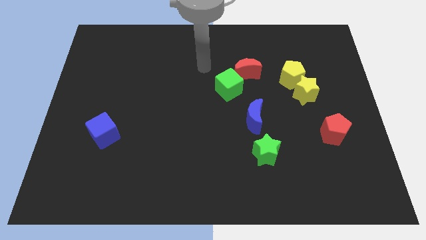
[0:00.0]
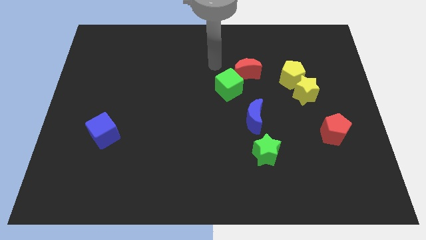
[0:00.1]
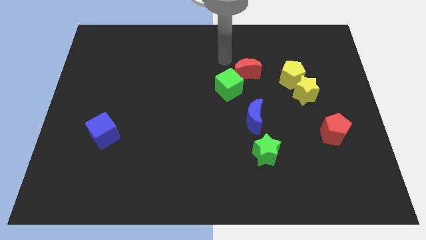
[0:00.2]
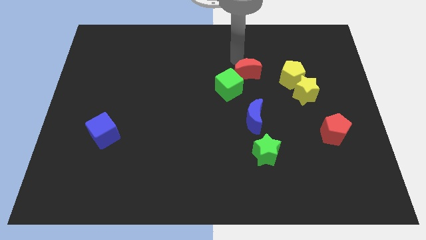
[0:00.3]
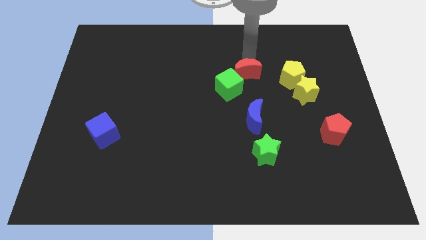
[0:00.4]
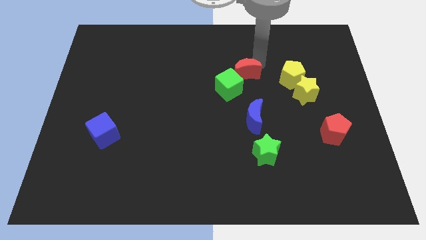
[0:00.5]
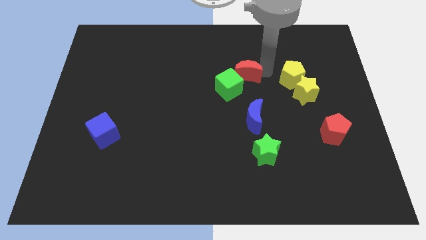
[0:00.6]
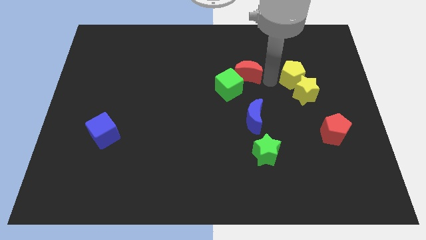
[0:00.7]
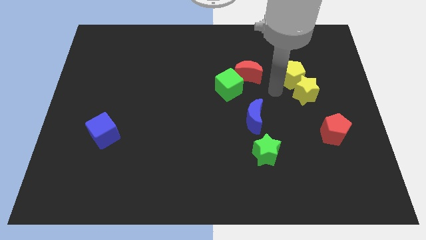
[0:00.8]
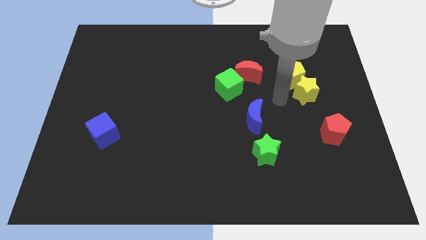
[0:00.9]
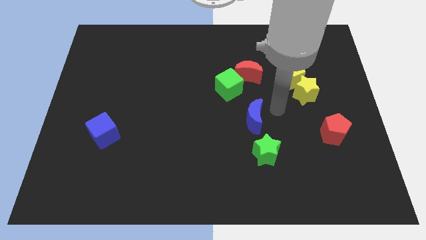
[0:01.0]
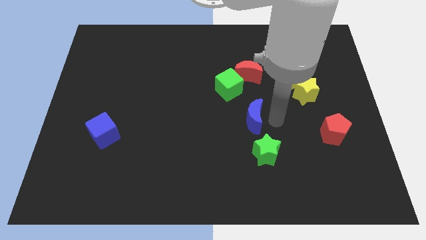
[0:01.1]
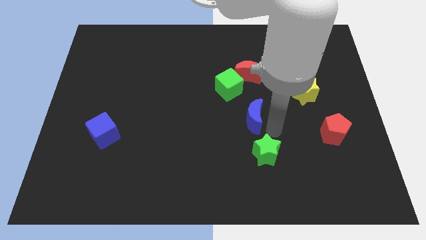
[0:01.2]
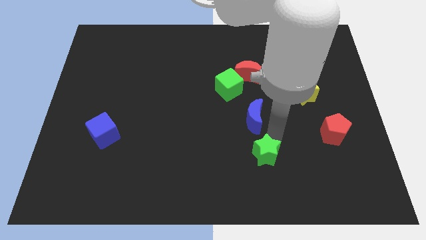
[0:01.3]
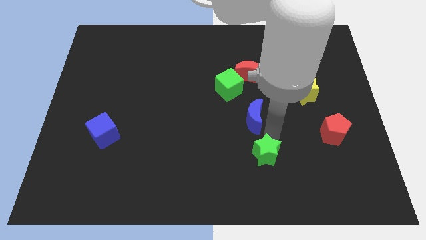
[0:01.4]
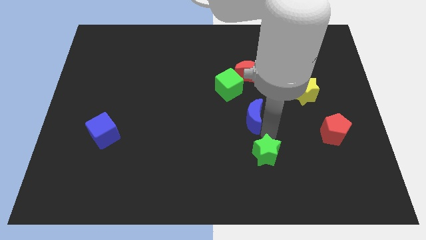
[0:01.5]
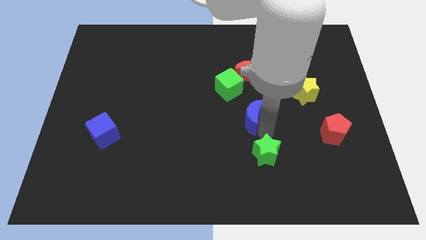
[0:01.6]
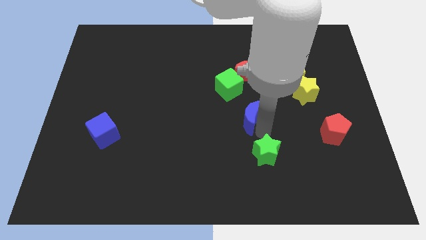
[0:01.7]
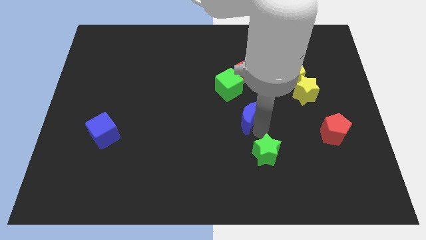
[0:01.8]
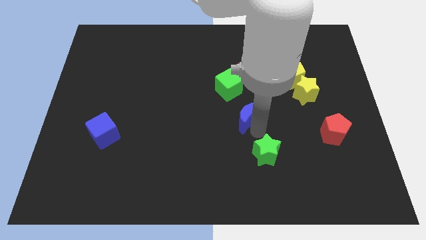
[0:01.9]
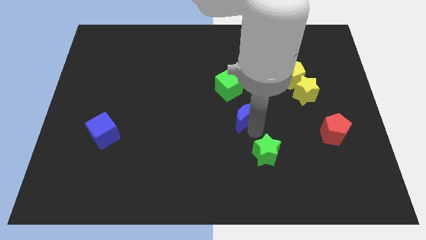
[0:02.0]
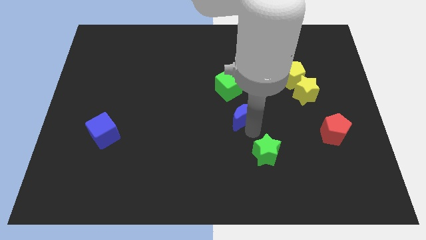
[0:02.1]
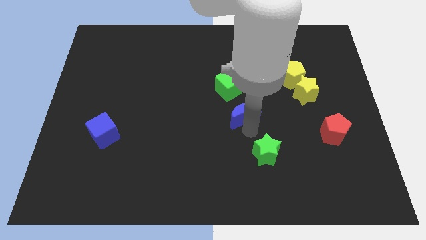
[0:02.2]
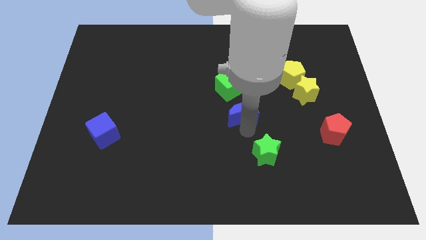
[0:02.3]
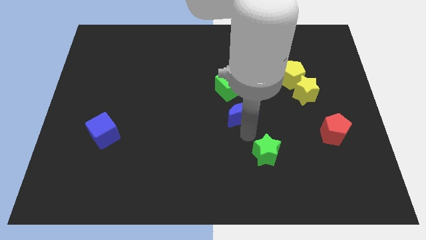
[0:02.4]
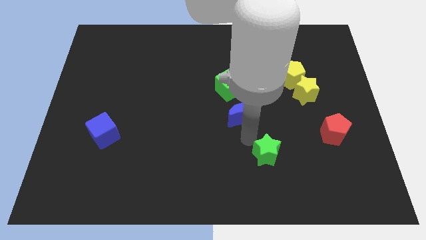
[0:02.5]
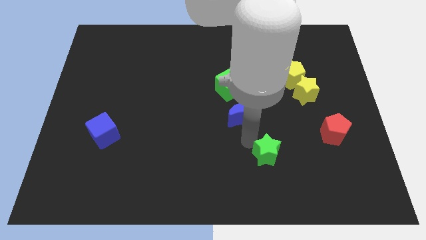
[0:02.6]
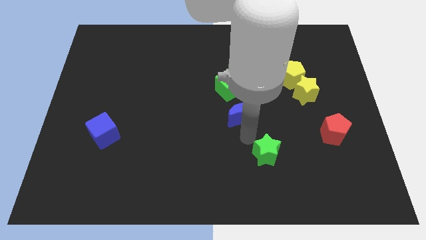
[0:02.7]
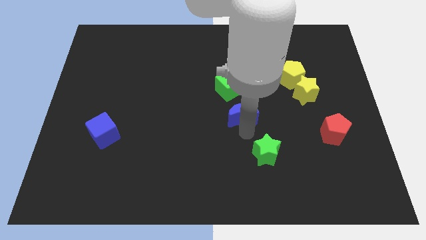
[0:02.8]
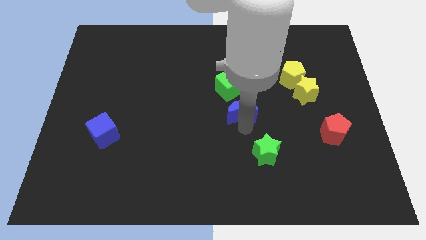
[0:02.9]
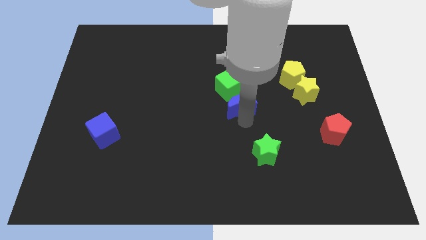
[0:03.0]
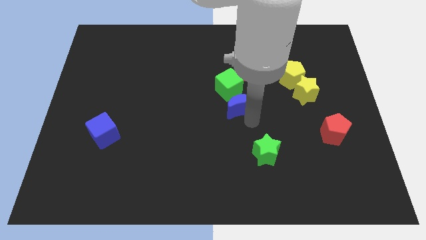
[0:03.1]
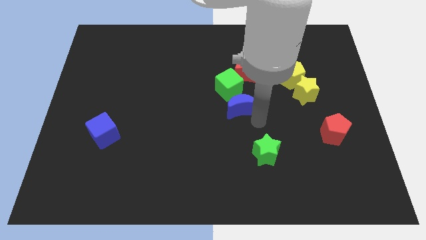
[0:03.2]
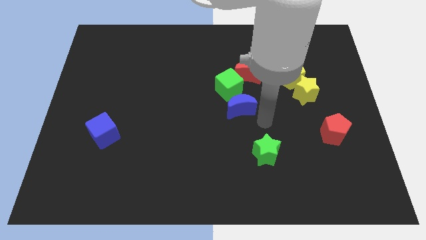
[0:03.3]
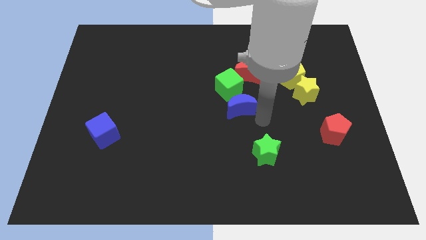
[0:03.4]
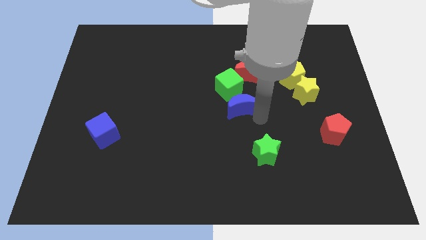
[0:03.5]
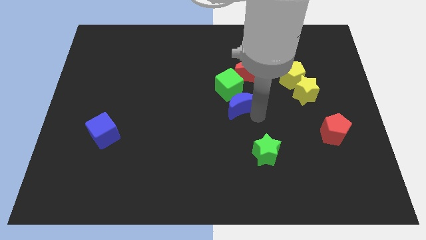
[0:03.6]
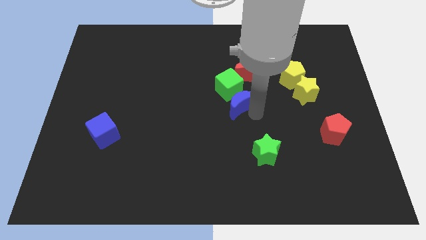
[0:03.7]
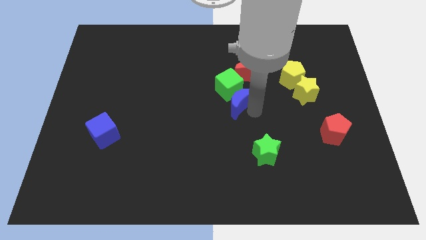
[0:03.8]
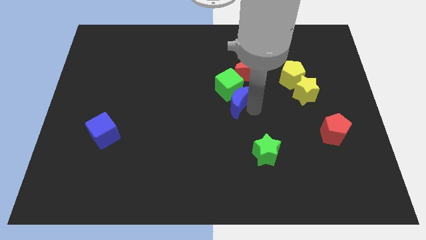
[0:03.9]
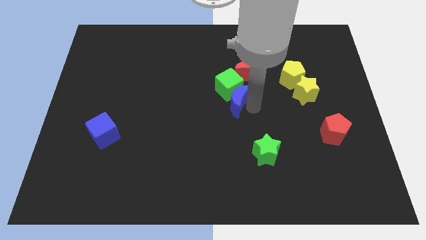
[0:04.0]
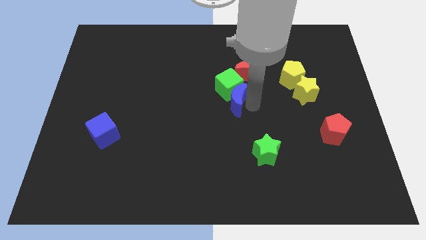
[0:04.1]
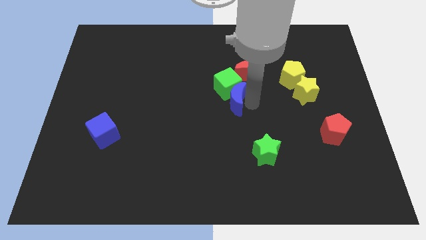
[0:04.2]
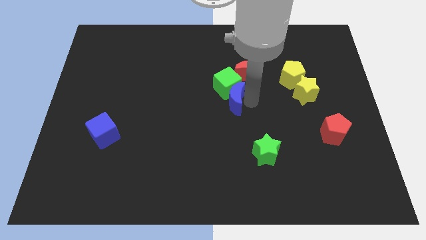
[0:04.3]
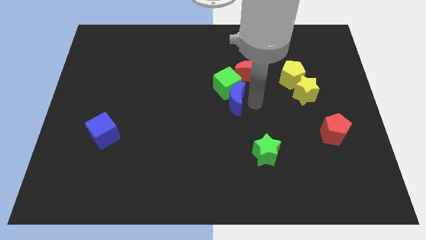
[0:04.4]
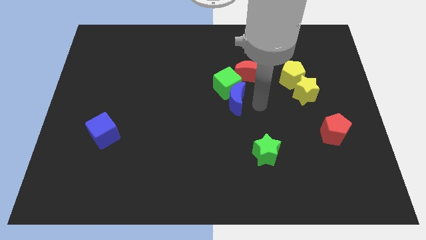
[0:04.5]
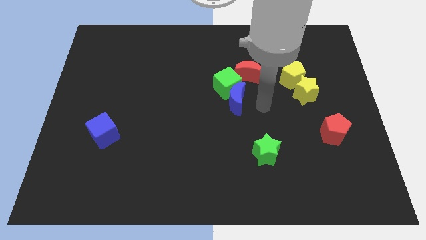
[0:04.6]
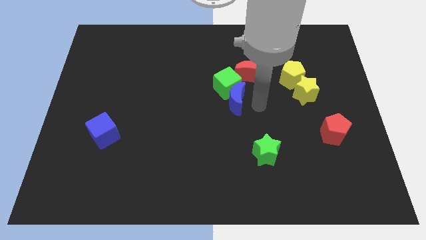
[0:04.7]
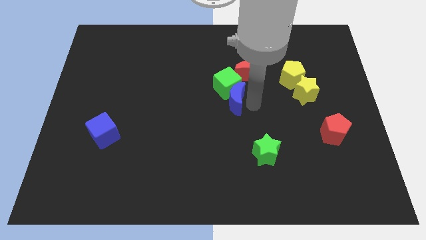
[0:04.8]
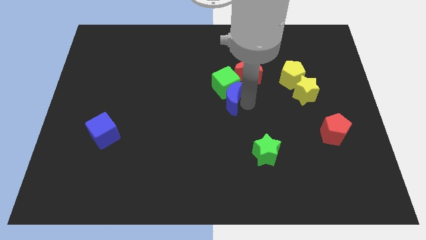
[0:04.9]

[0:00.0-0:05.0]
slightly slide the blue moon diagonally upwards and to the left

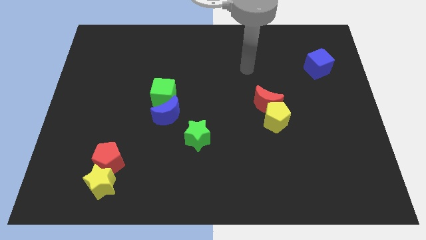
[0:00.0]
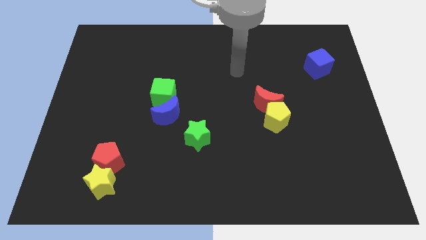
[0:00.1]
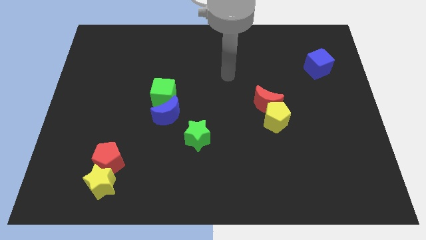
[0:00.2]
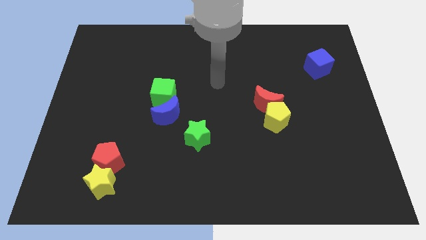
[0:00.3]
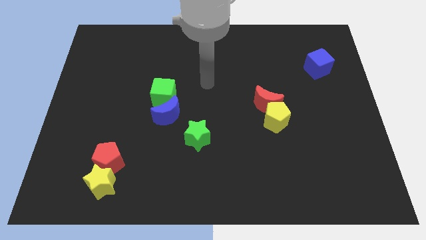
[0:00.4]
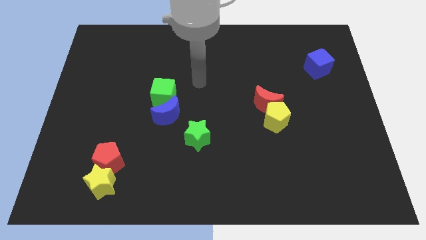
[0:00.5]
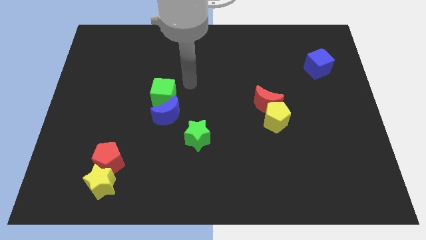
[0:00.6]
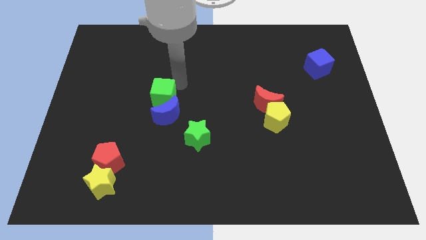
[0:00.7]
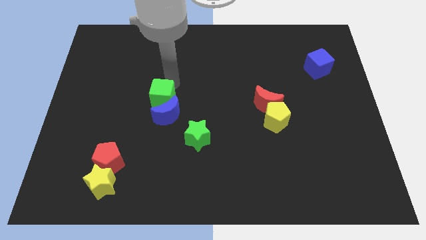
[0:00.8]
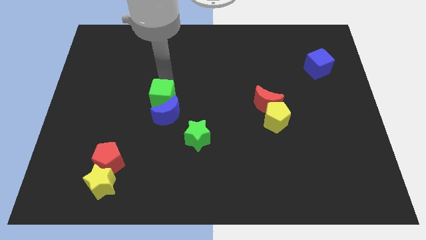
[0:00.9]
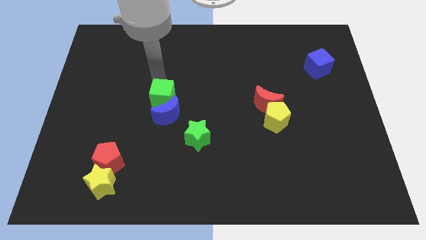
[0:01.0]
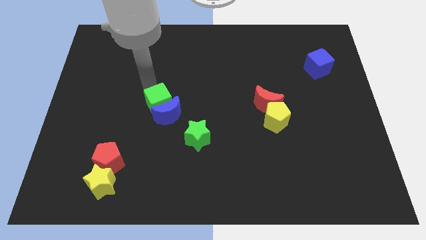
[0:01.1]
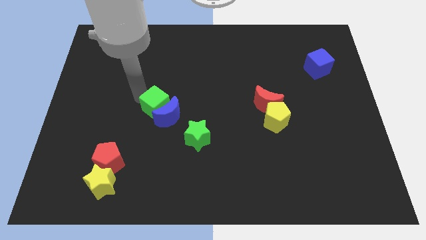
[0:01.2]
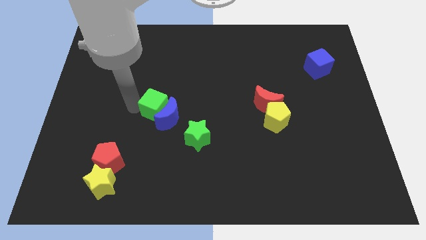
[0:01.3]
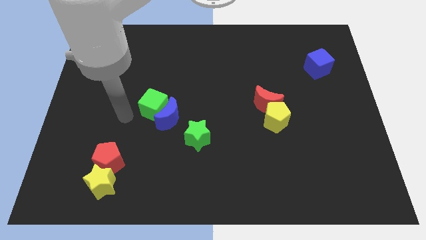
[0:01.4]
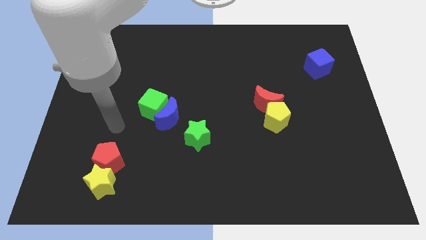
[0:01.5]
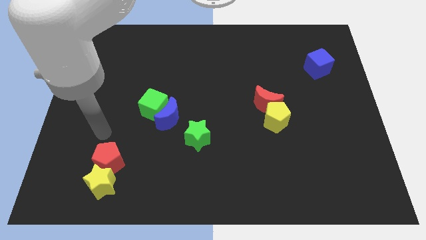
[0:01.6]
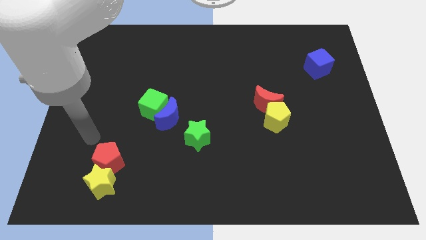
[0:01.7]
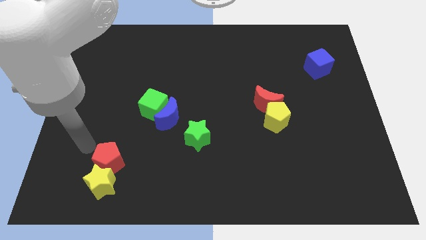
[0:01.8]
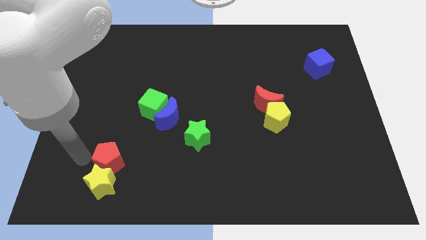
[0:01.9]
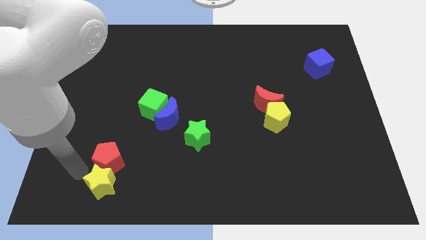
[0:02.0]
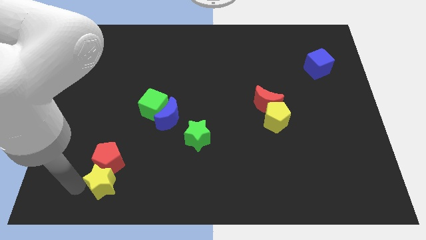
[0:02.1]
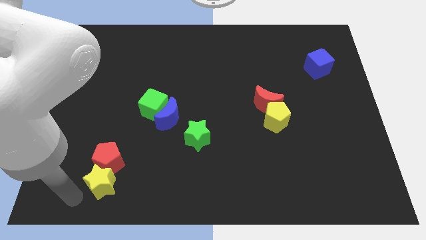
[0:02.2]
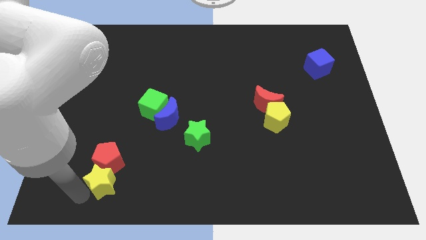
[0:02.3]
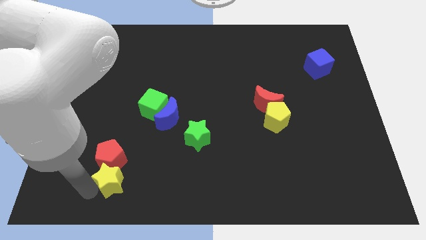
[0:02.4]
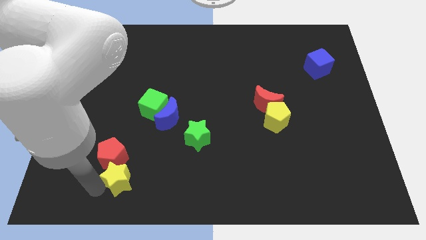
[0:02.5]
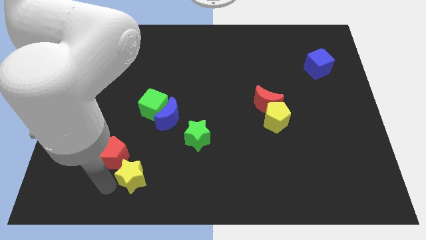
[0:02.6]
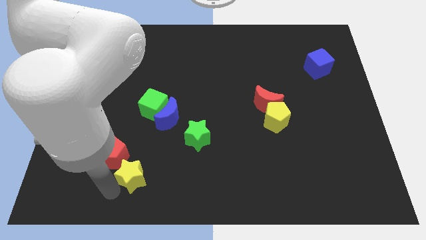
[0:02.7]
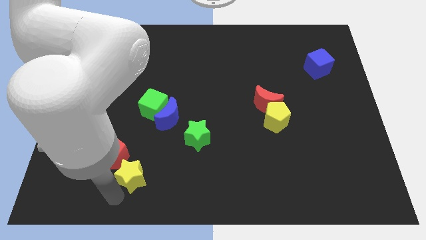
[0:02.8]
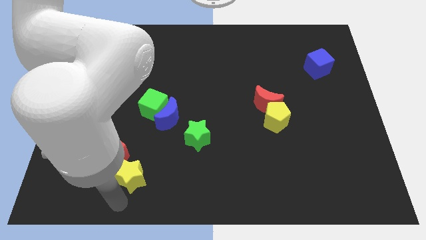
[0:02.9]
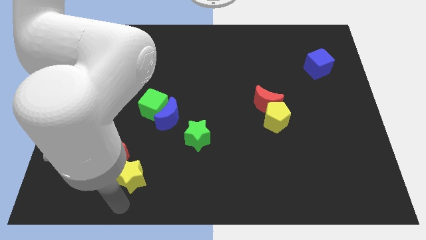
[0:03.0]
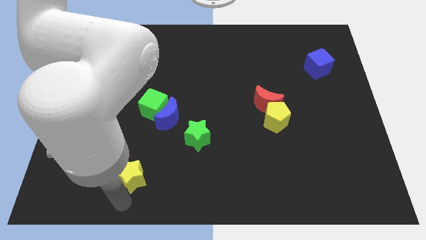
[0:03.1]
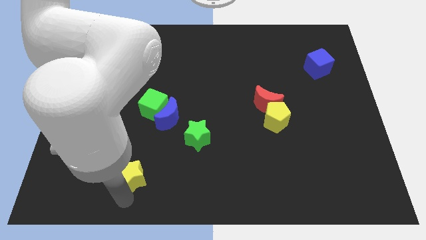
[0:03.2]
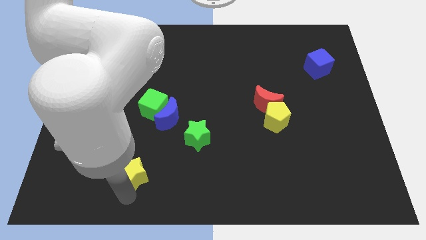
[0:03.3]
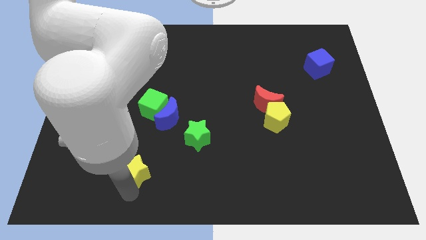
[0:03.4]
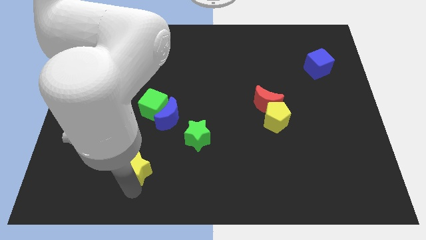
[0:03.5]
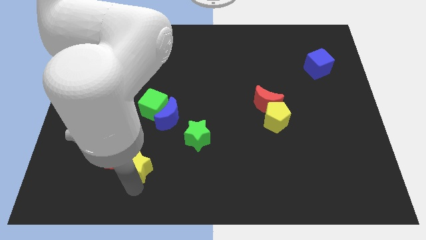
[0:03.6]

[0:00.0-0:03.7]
slightly push the yellow star diagonally up and to the right
